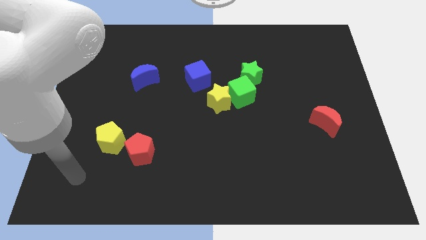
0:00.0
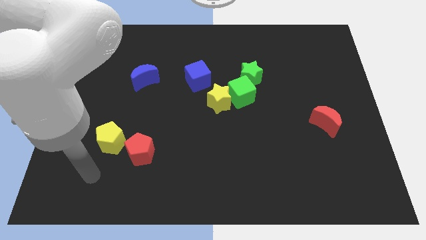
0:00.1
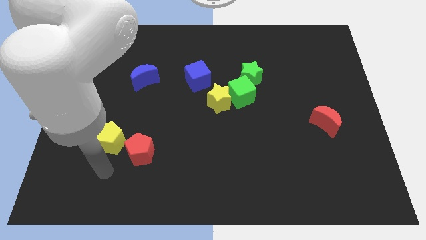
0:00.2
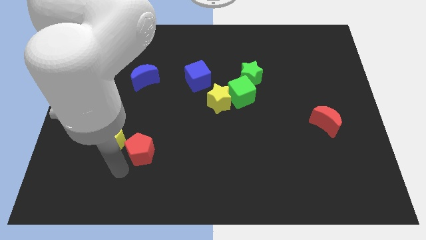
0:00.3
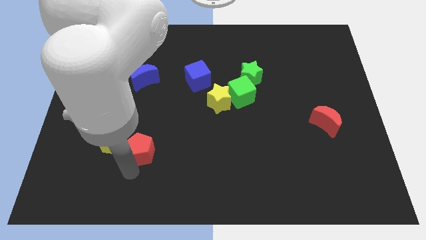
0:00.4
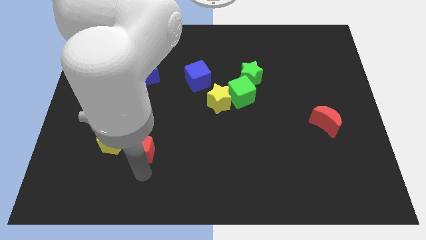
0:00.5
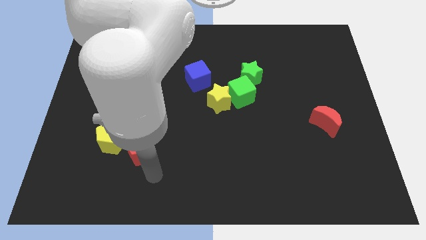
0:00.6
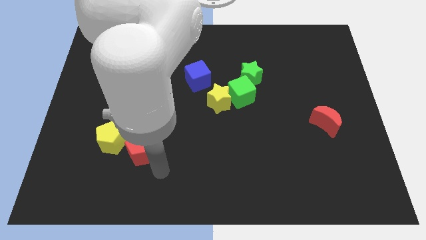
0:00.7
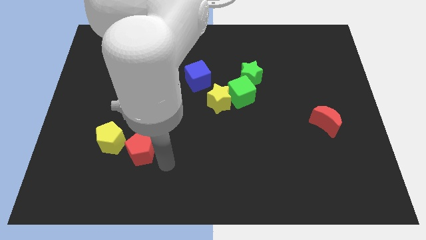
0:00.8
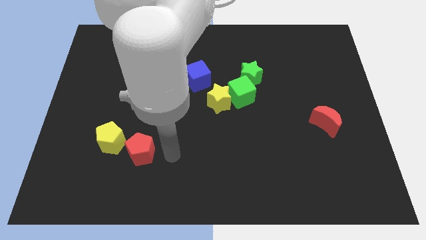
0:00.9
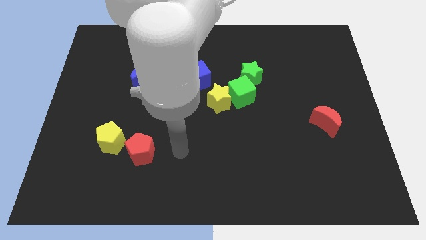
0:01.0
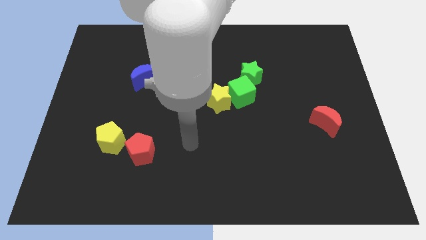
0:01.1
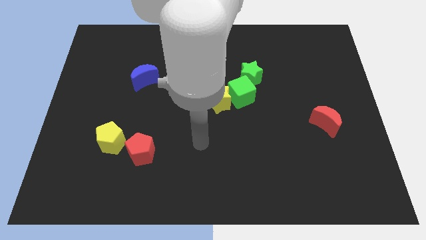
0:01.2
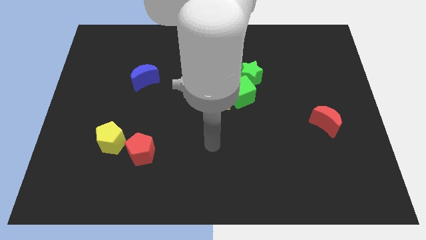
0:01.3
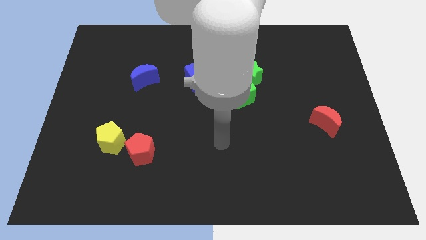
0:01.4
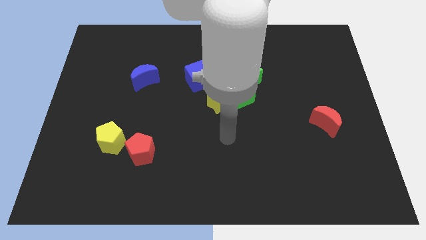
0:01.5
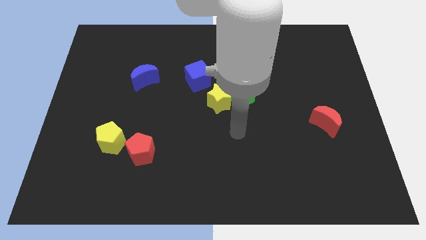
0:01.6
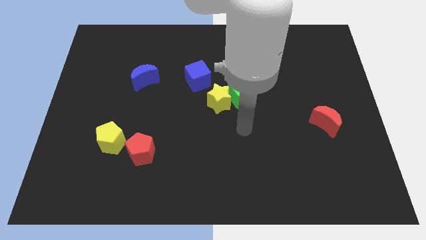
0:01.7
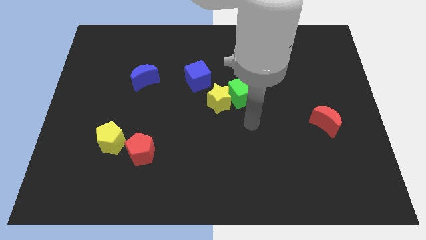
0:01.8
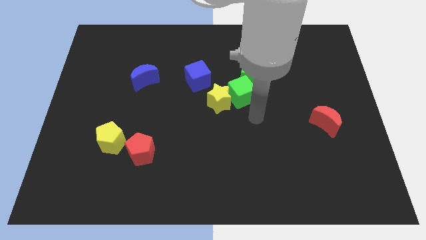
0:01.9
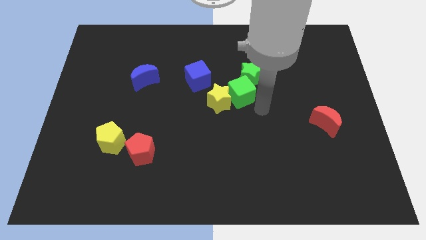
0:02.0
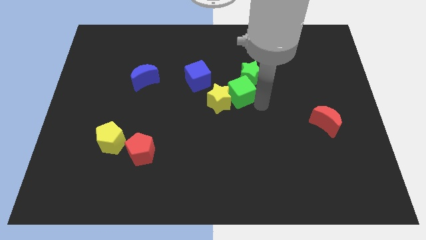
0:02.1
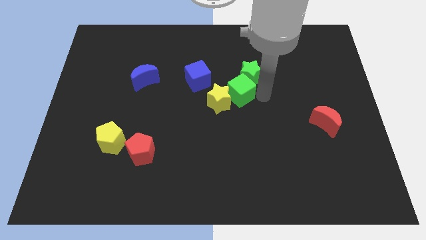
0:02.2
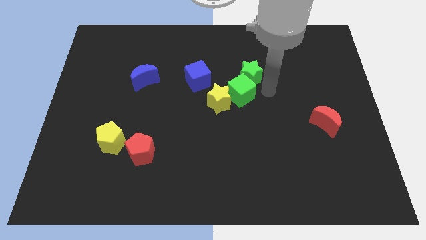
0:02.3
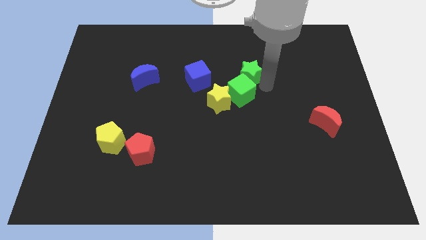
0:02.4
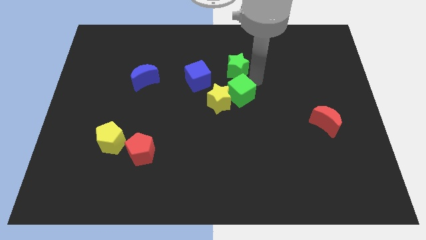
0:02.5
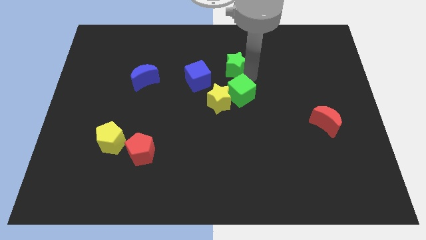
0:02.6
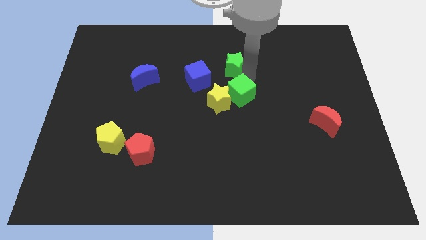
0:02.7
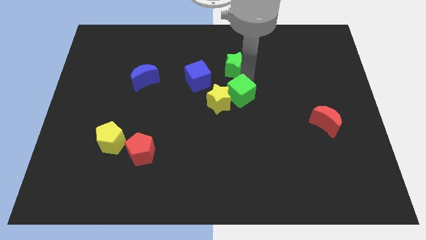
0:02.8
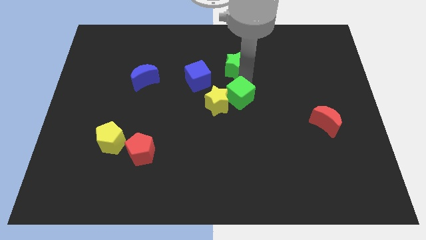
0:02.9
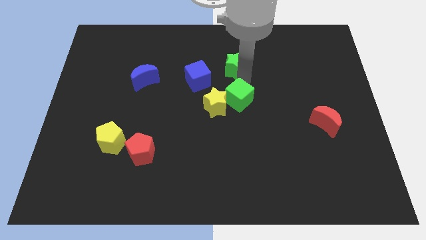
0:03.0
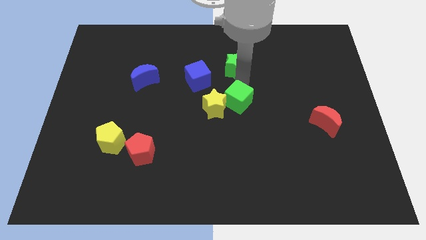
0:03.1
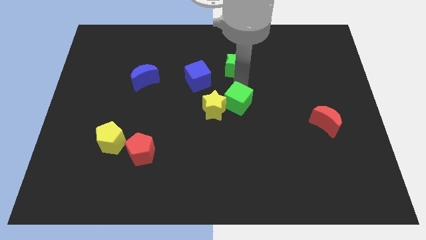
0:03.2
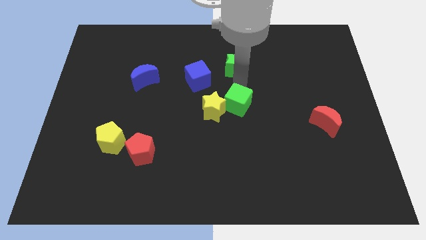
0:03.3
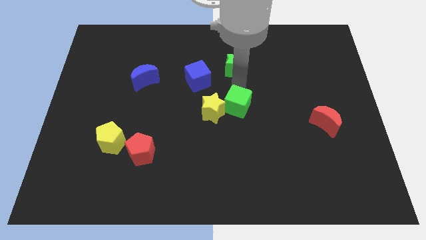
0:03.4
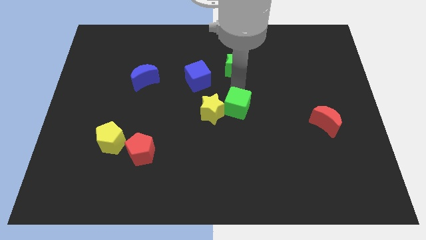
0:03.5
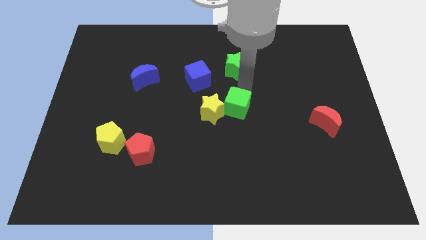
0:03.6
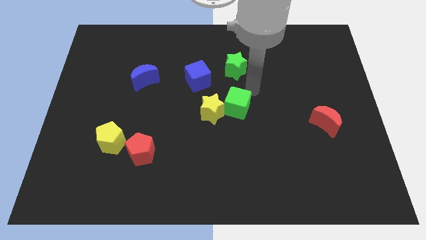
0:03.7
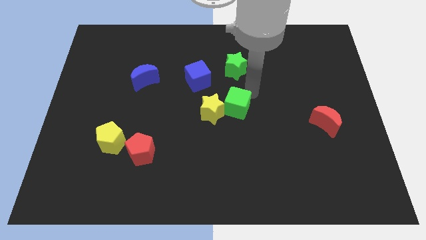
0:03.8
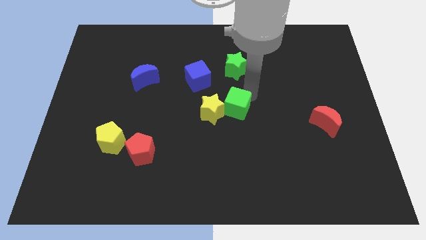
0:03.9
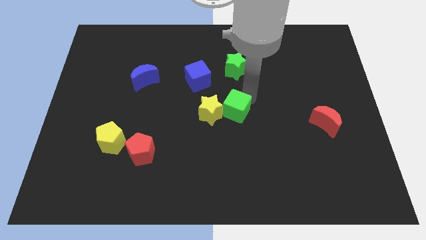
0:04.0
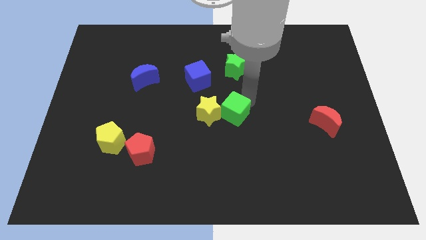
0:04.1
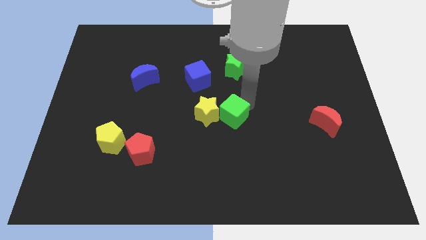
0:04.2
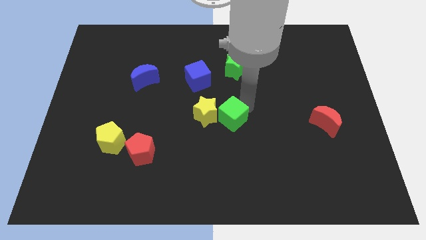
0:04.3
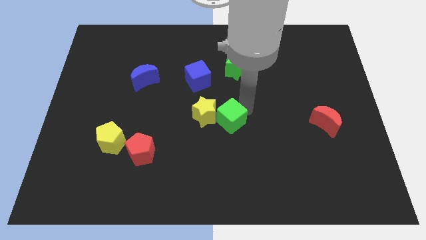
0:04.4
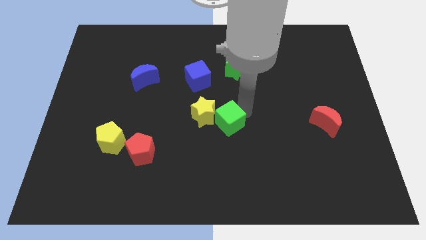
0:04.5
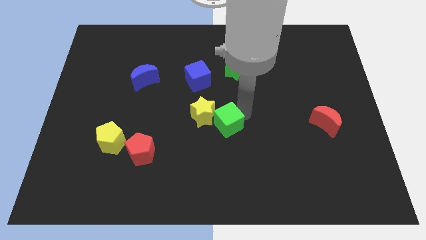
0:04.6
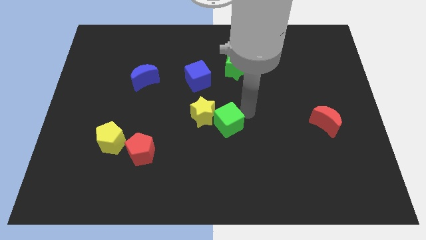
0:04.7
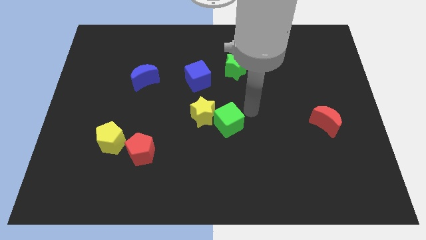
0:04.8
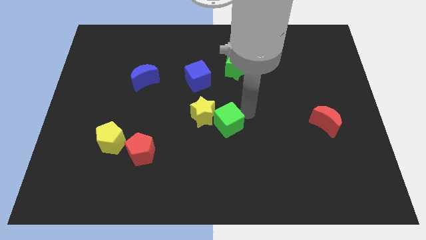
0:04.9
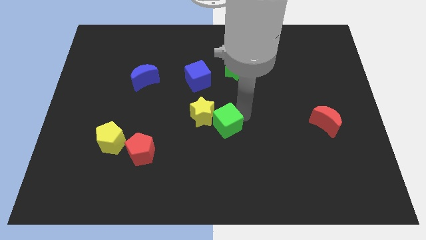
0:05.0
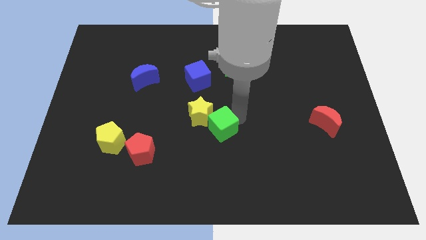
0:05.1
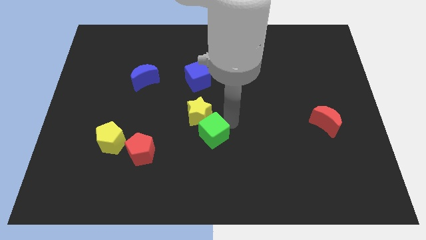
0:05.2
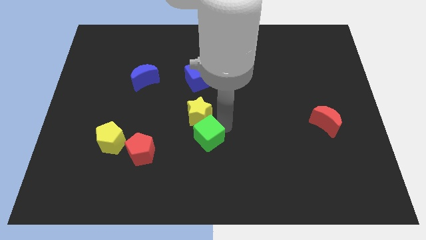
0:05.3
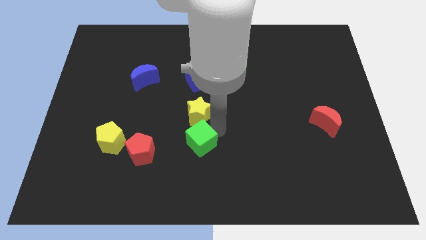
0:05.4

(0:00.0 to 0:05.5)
push the green cube just right of the red pentagon

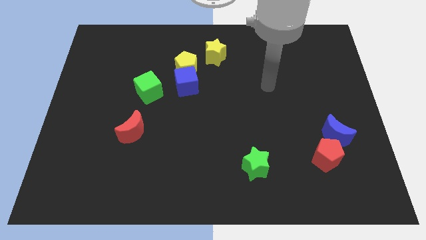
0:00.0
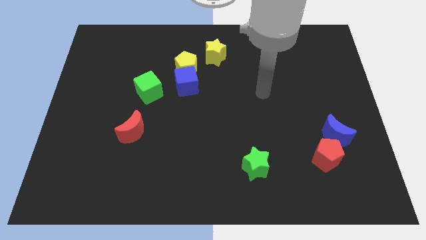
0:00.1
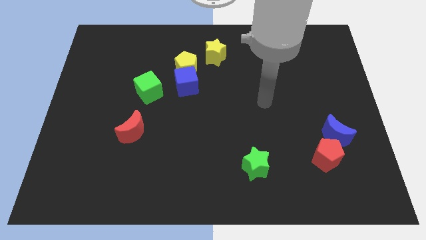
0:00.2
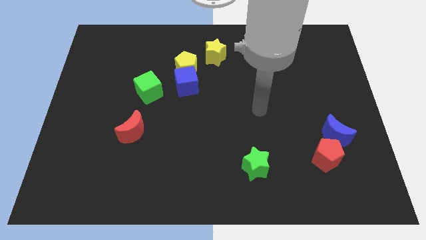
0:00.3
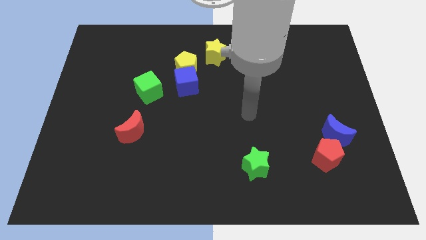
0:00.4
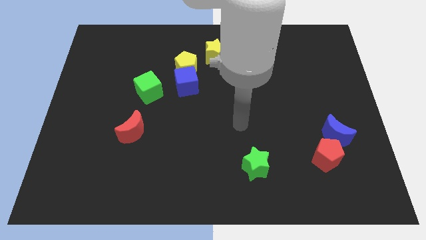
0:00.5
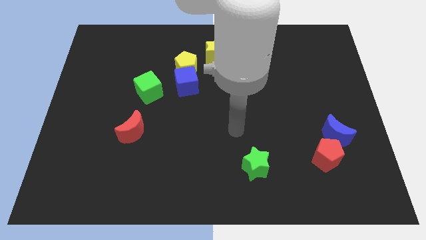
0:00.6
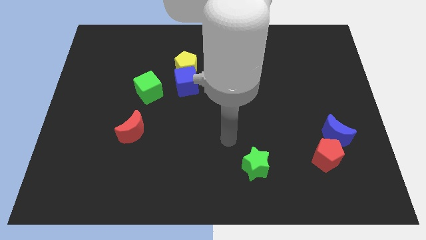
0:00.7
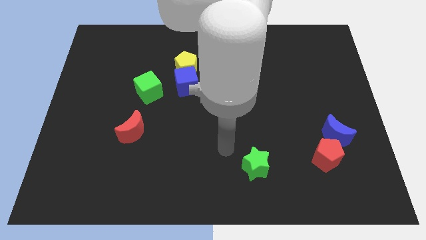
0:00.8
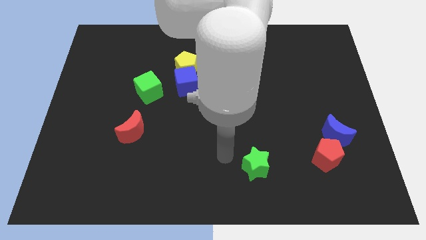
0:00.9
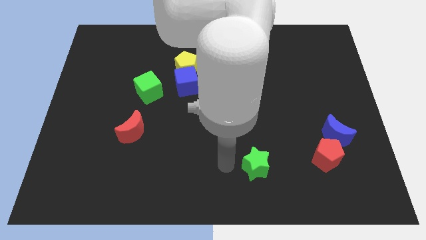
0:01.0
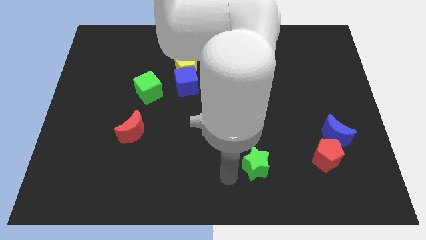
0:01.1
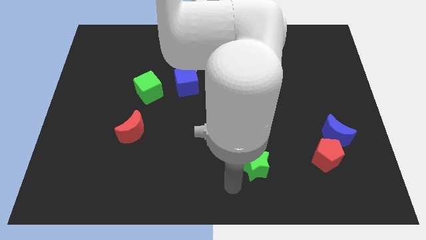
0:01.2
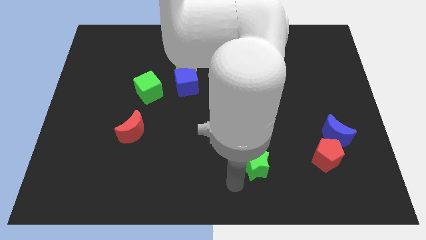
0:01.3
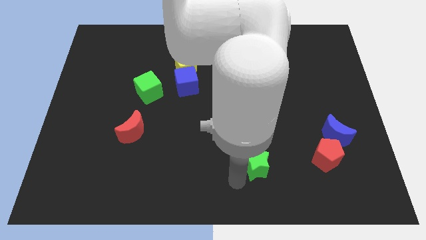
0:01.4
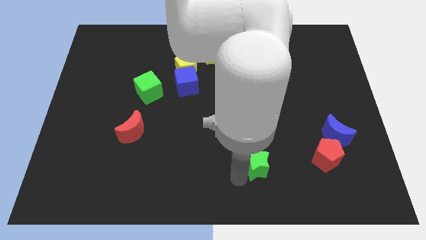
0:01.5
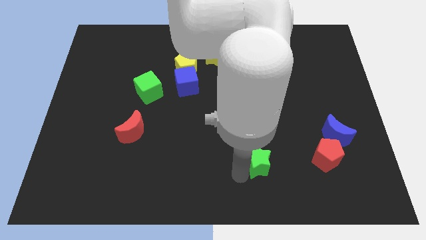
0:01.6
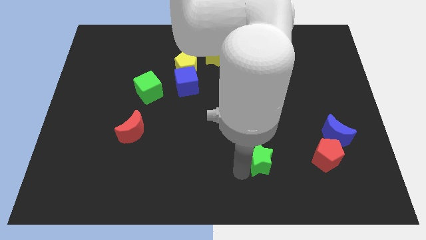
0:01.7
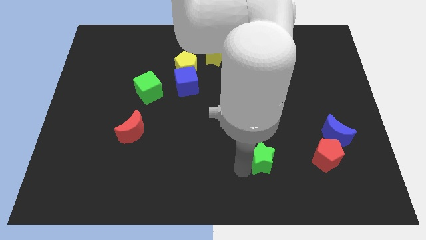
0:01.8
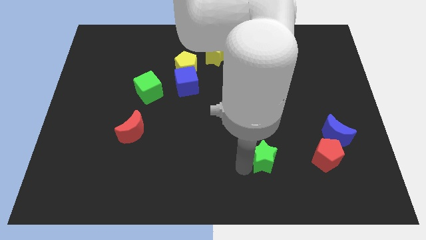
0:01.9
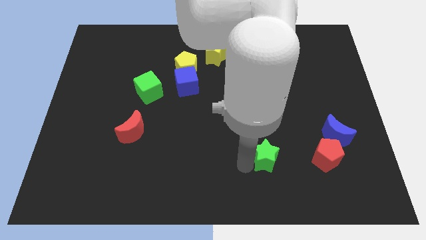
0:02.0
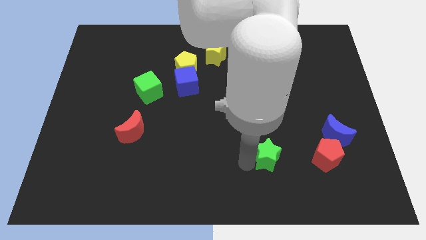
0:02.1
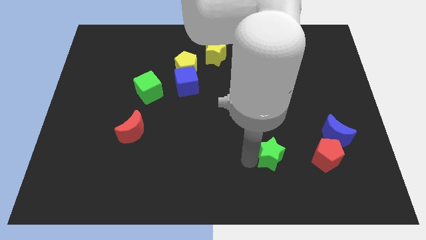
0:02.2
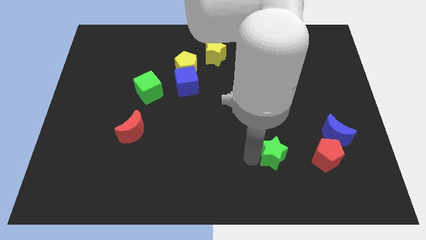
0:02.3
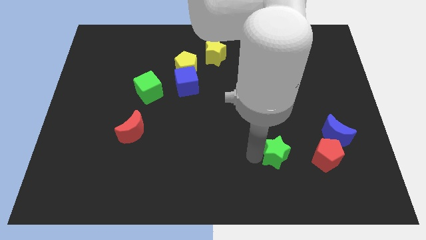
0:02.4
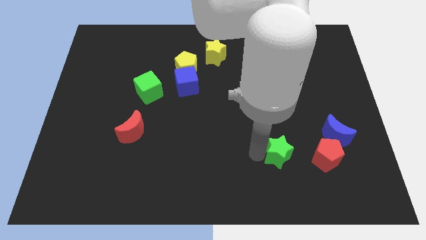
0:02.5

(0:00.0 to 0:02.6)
slide the green star left of the blue moon
